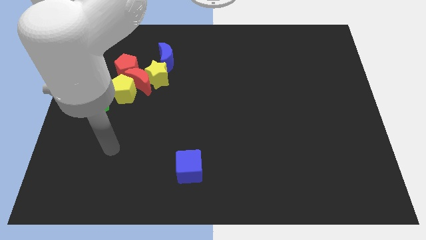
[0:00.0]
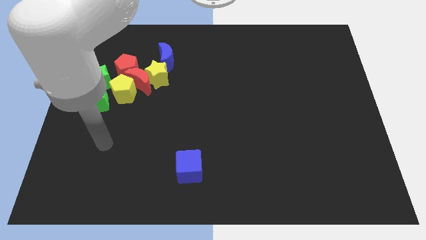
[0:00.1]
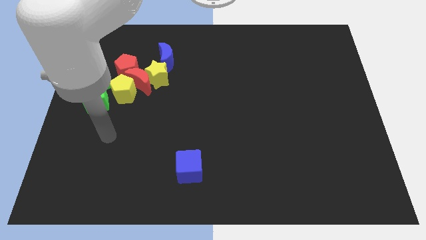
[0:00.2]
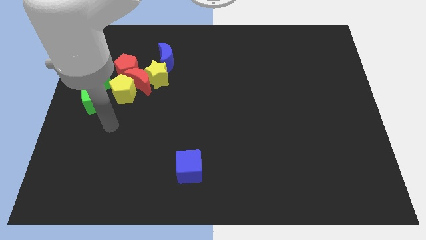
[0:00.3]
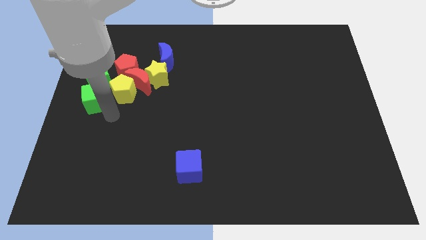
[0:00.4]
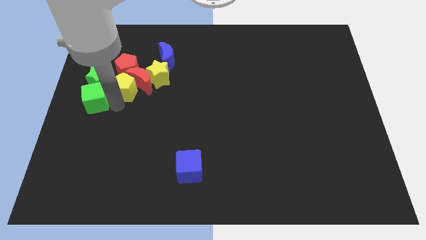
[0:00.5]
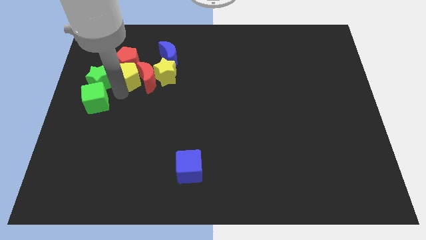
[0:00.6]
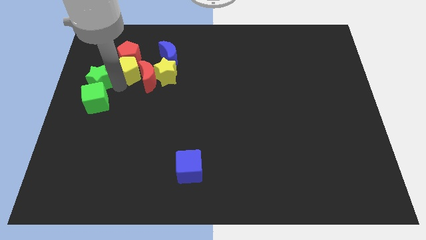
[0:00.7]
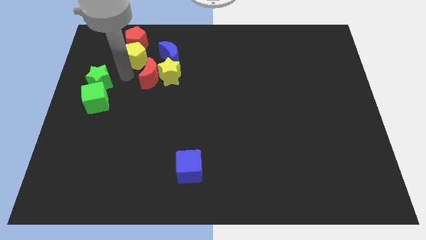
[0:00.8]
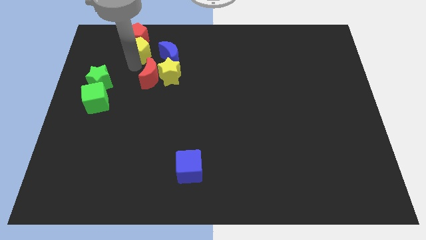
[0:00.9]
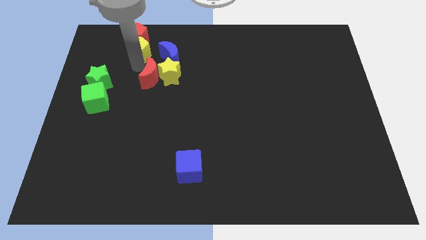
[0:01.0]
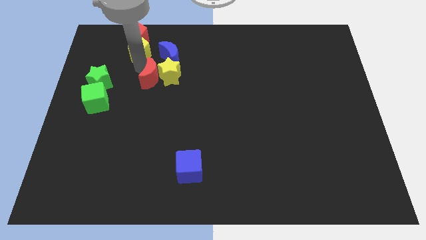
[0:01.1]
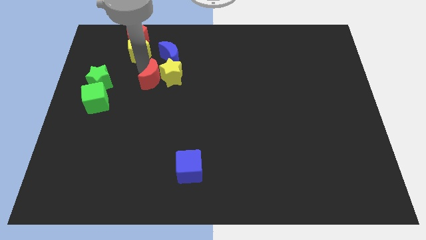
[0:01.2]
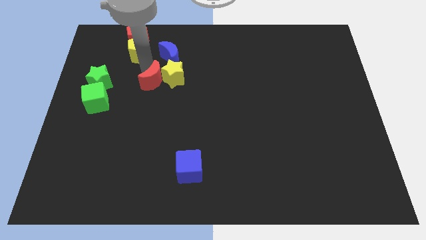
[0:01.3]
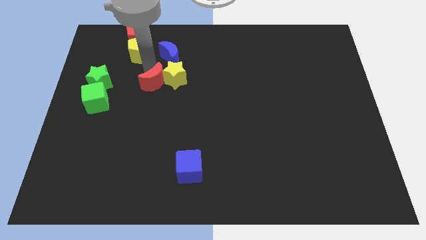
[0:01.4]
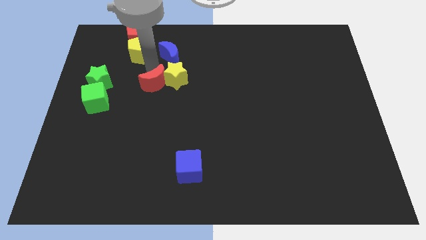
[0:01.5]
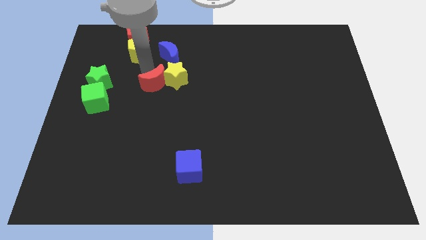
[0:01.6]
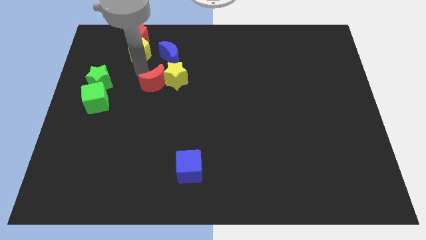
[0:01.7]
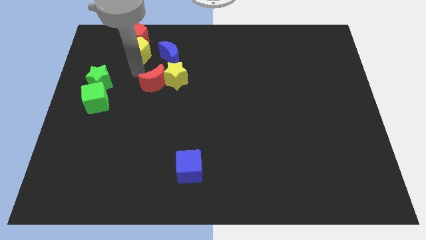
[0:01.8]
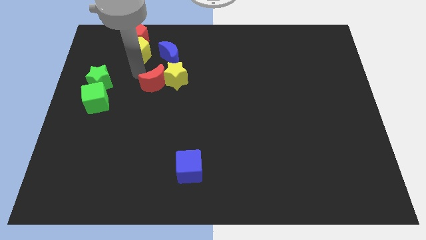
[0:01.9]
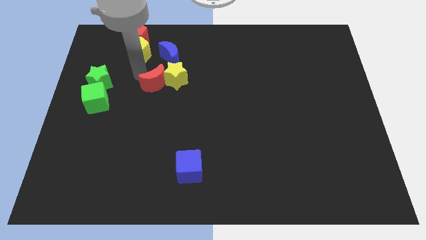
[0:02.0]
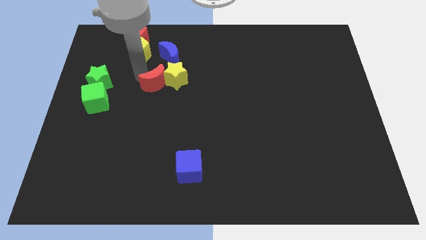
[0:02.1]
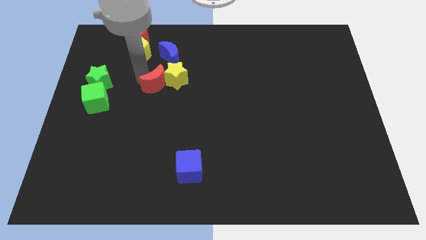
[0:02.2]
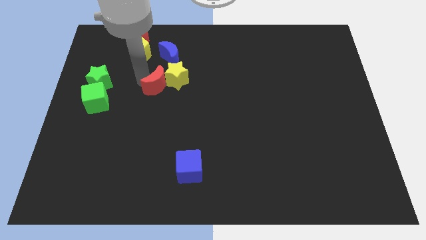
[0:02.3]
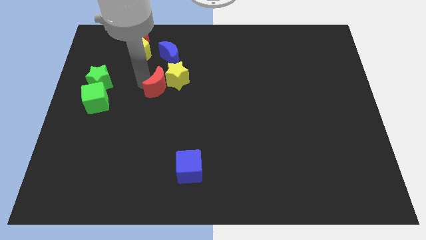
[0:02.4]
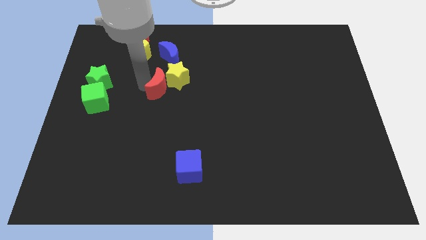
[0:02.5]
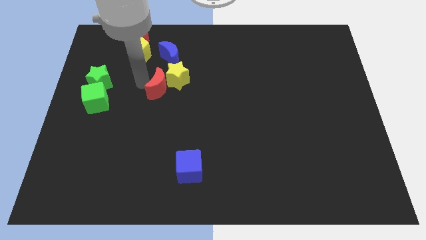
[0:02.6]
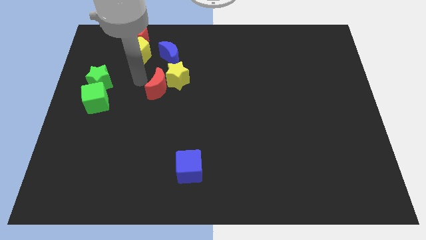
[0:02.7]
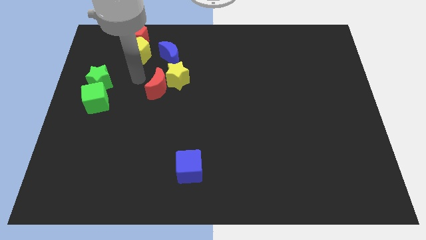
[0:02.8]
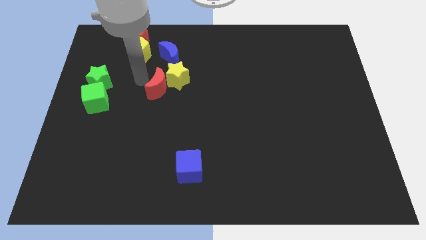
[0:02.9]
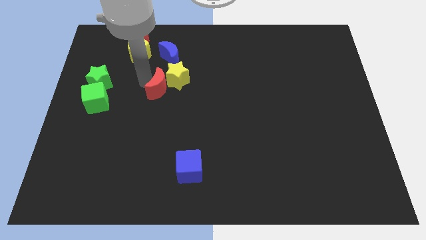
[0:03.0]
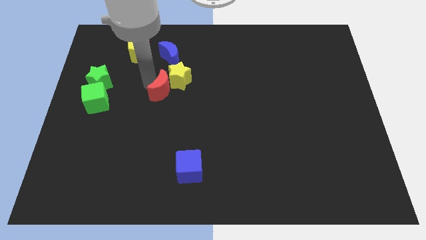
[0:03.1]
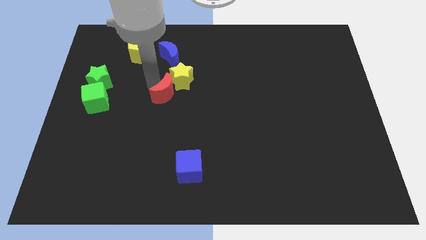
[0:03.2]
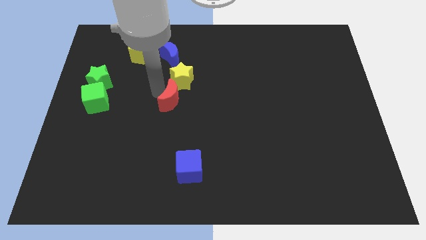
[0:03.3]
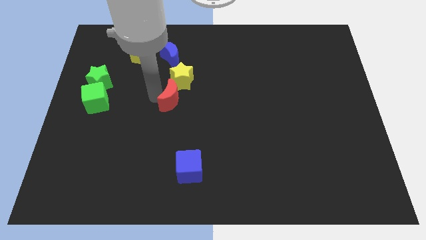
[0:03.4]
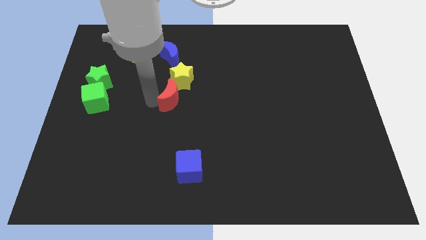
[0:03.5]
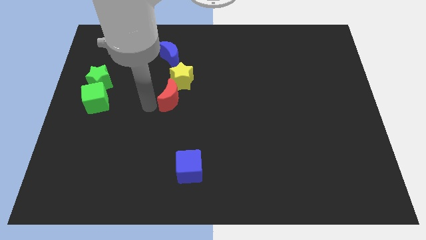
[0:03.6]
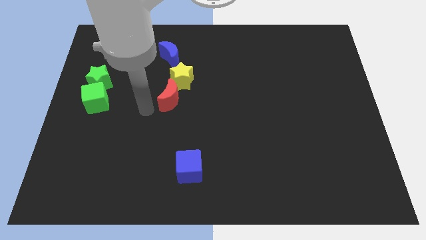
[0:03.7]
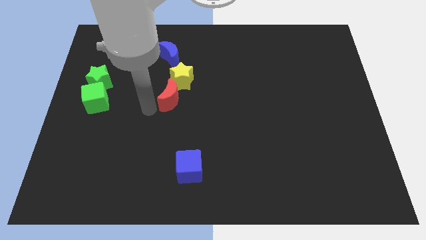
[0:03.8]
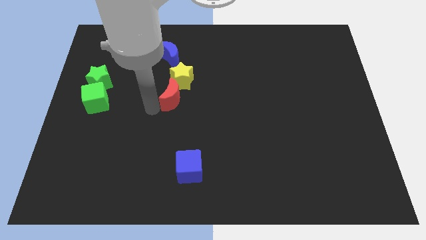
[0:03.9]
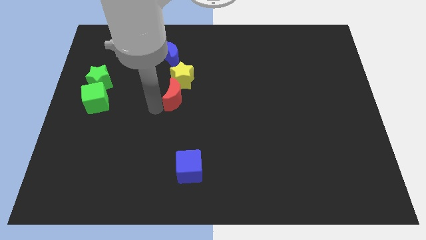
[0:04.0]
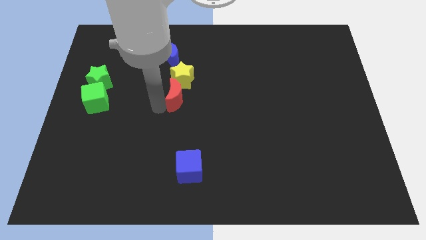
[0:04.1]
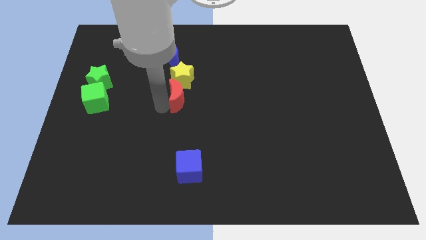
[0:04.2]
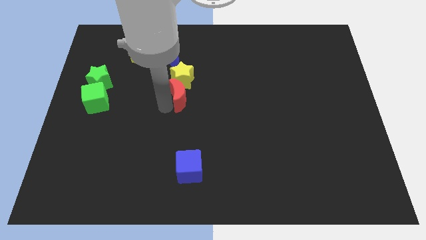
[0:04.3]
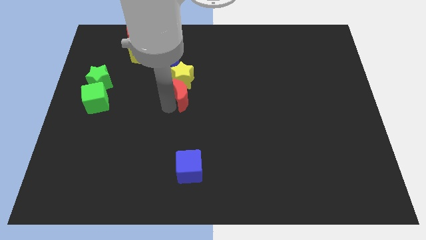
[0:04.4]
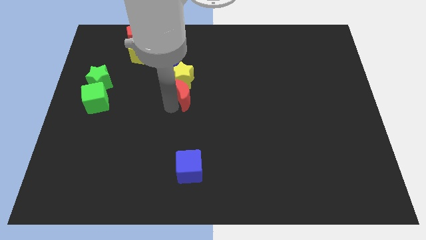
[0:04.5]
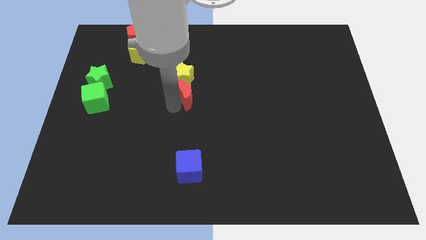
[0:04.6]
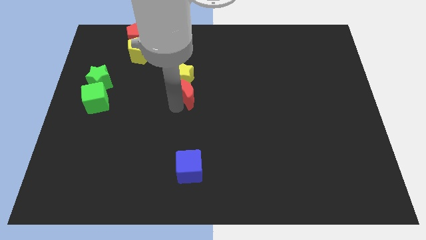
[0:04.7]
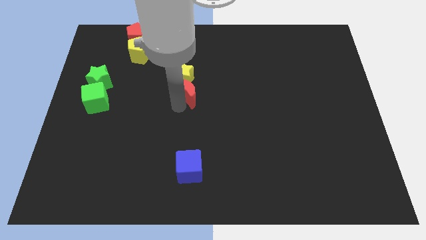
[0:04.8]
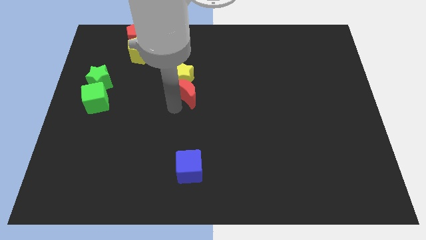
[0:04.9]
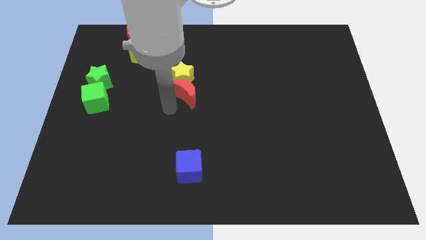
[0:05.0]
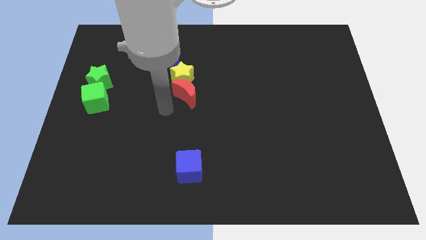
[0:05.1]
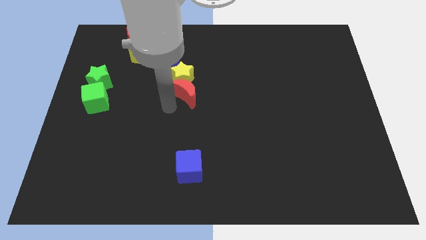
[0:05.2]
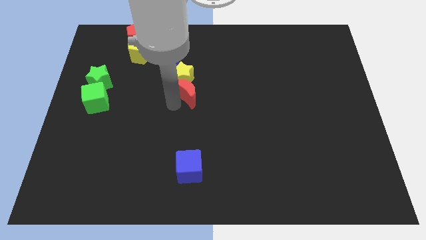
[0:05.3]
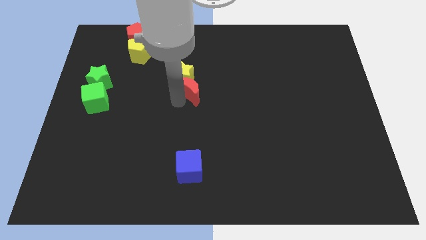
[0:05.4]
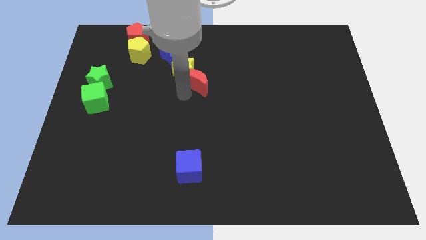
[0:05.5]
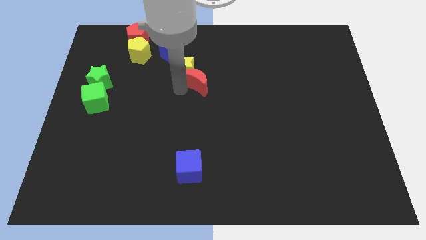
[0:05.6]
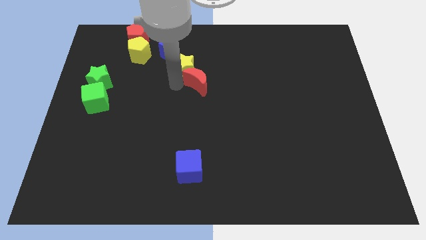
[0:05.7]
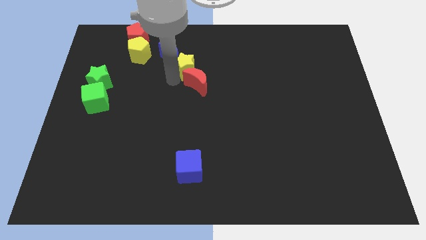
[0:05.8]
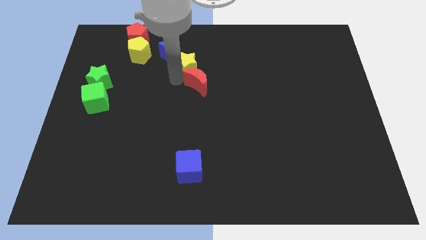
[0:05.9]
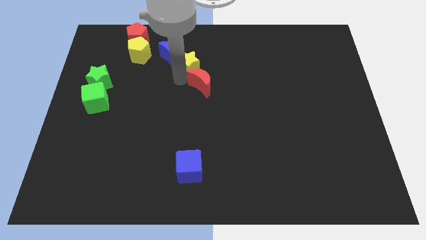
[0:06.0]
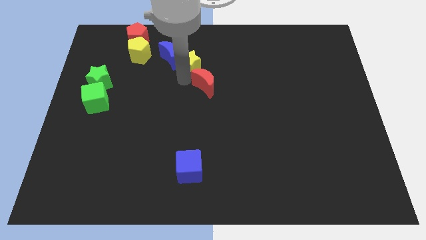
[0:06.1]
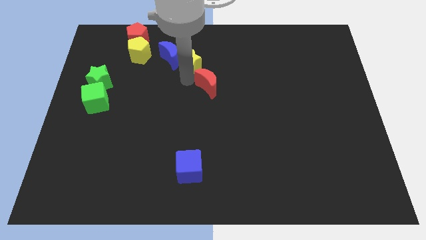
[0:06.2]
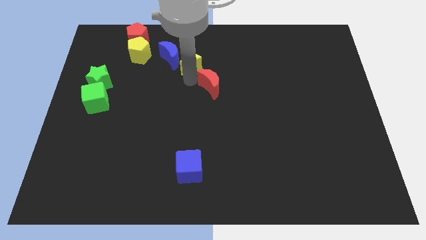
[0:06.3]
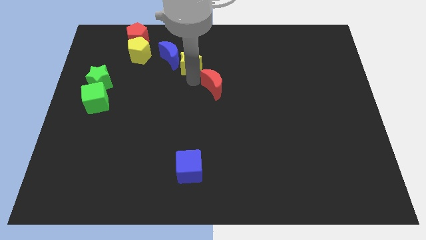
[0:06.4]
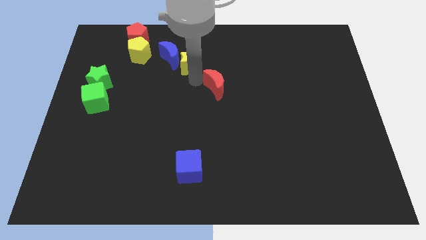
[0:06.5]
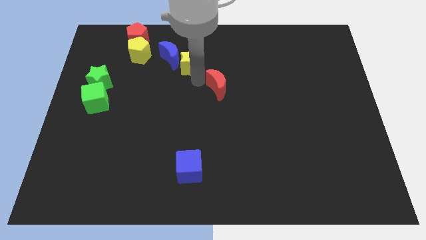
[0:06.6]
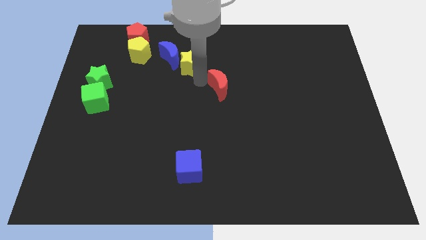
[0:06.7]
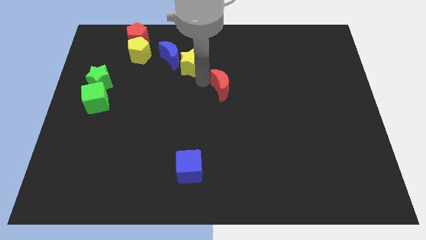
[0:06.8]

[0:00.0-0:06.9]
move the red moon right

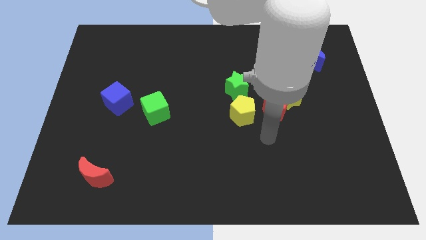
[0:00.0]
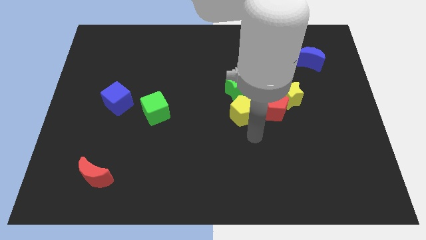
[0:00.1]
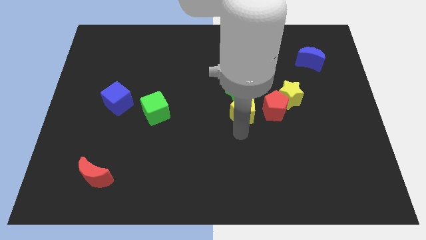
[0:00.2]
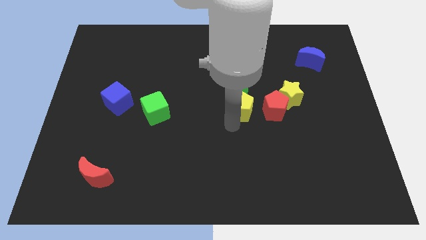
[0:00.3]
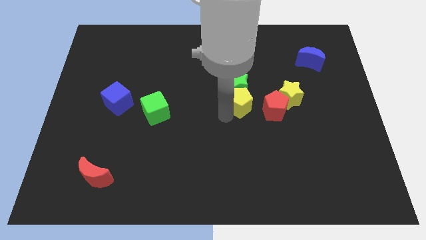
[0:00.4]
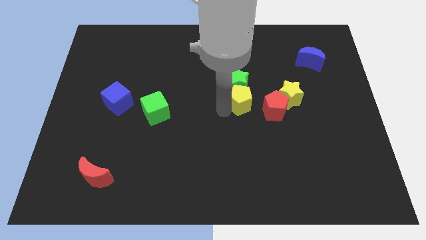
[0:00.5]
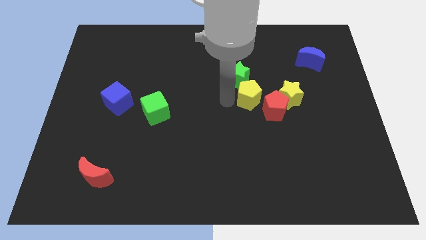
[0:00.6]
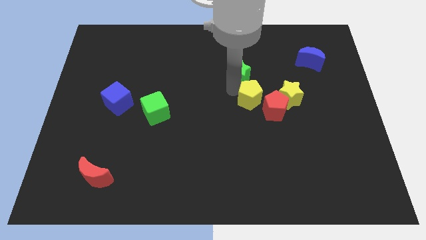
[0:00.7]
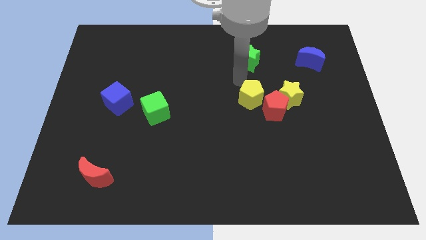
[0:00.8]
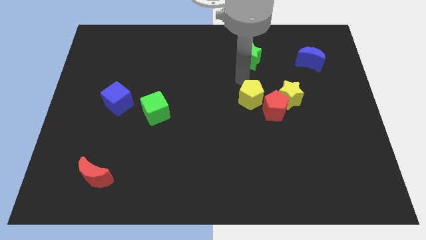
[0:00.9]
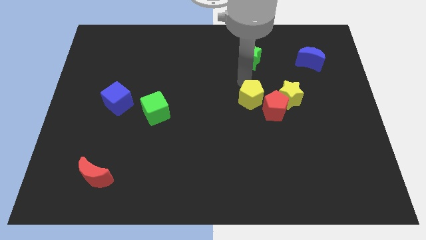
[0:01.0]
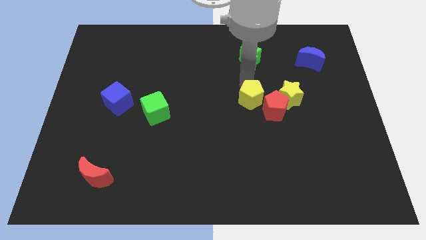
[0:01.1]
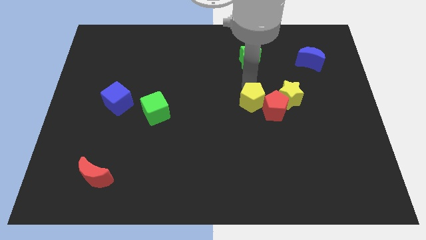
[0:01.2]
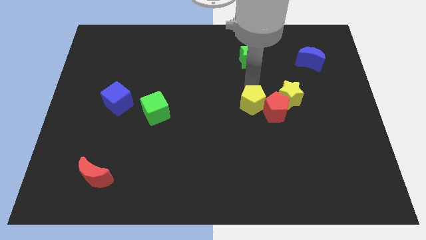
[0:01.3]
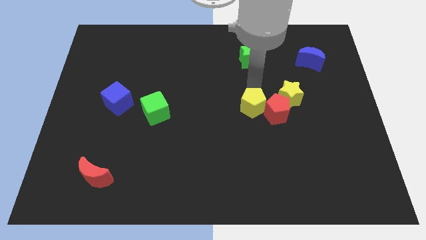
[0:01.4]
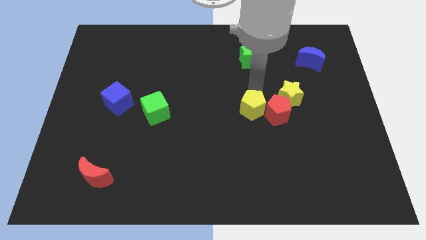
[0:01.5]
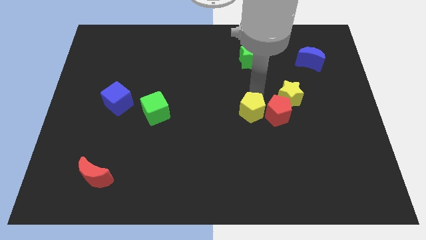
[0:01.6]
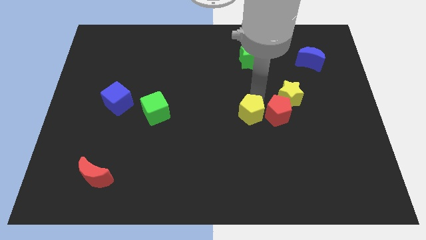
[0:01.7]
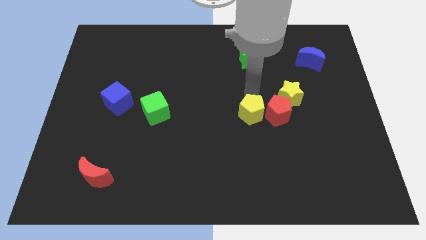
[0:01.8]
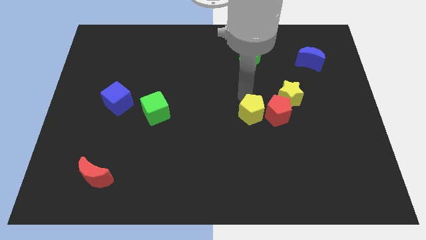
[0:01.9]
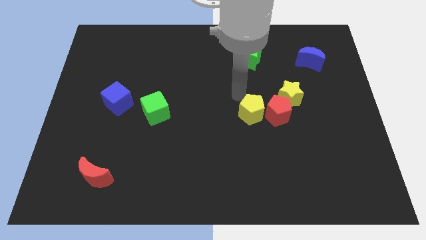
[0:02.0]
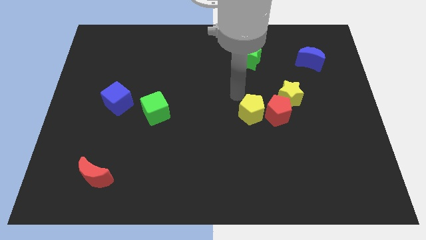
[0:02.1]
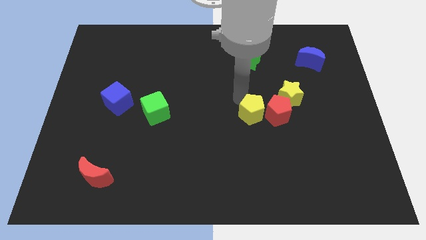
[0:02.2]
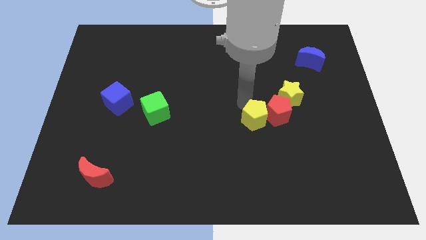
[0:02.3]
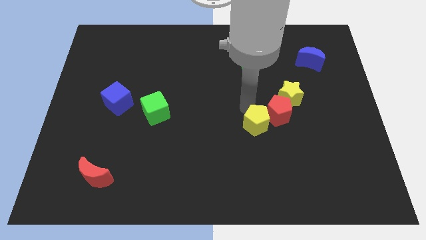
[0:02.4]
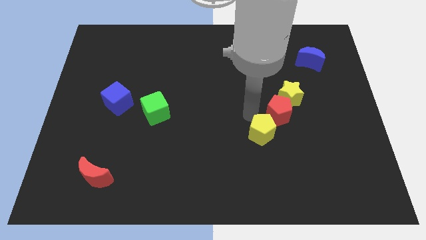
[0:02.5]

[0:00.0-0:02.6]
slide the yellow pentagon a little bit downwards and right diagonally
